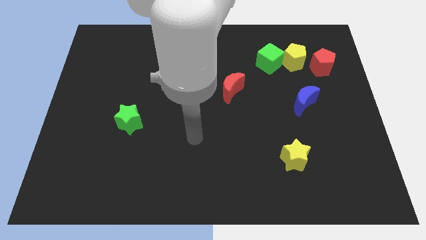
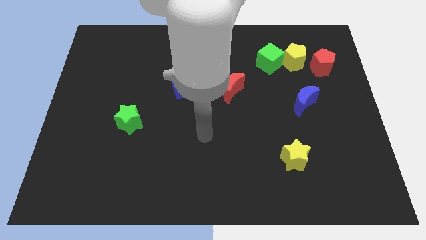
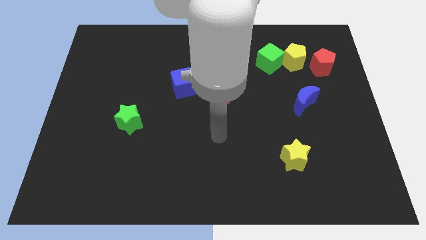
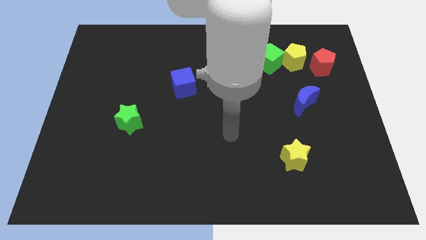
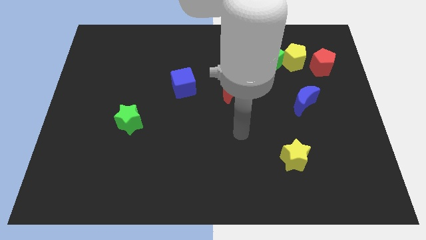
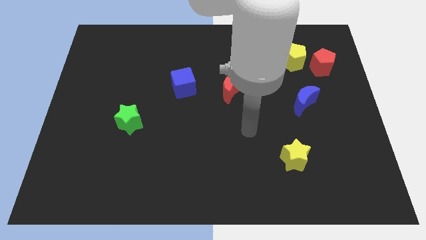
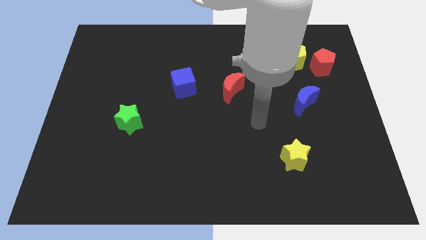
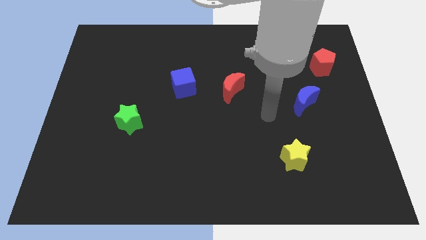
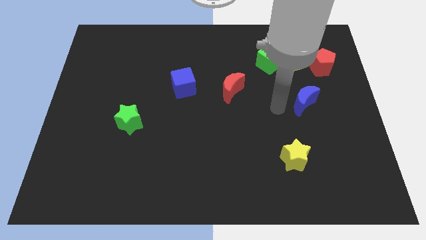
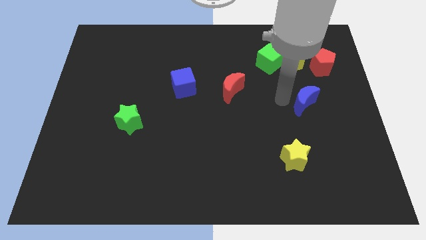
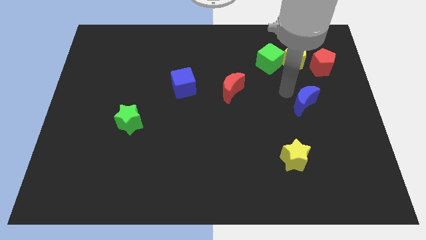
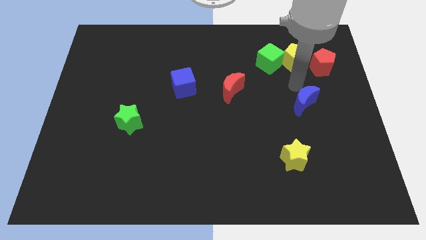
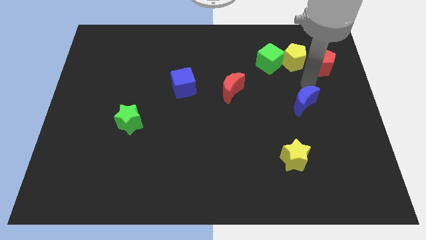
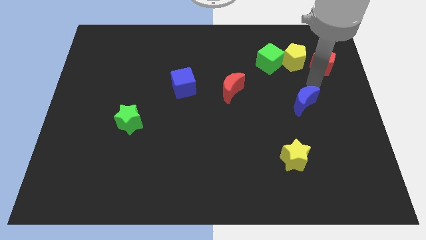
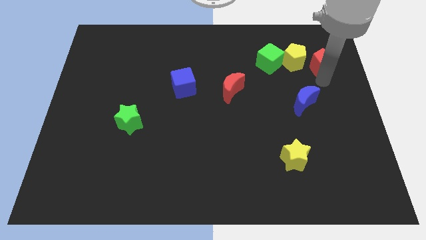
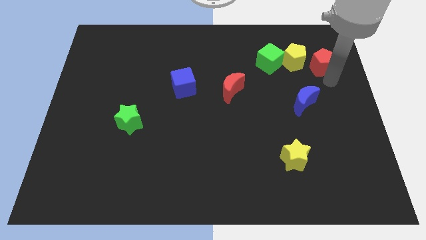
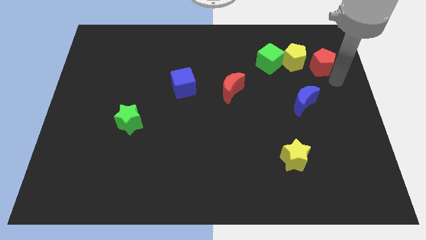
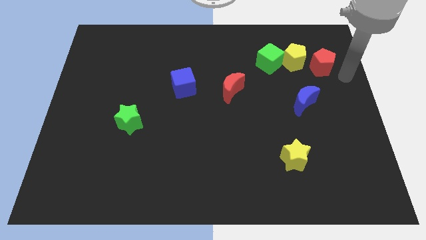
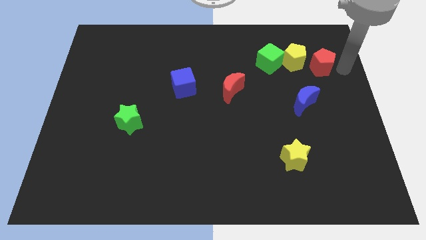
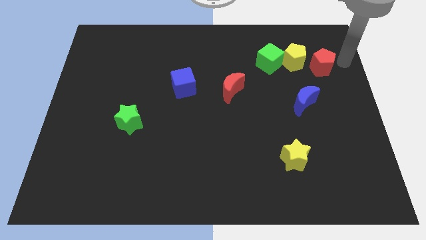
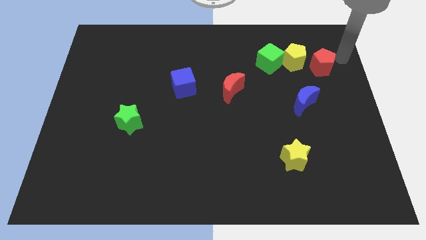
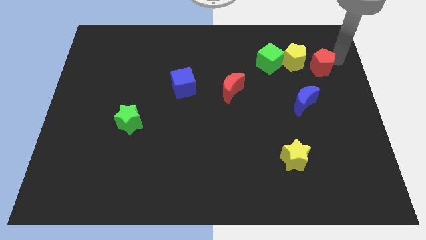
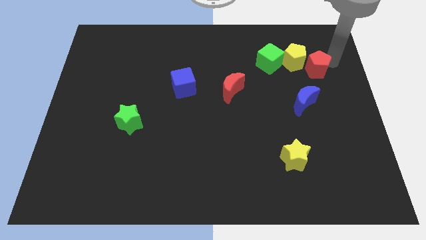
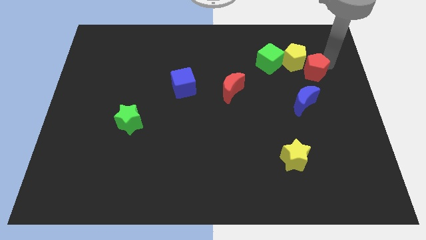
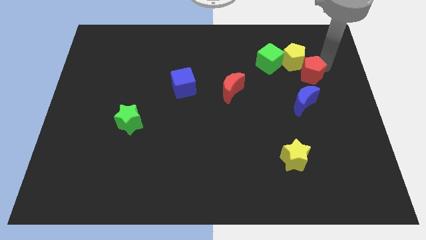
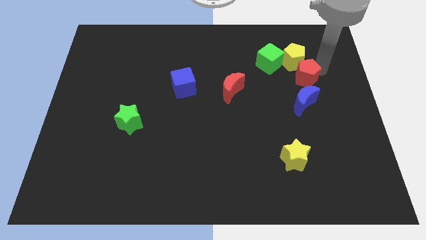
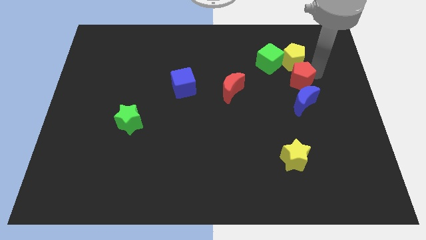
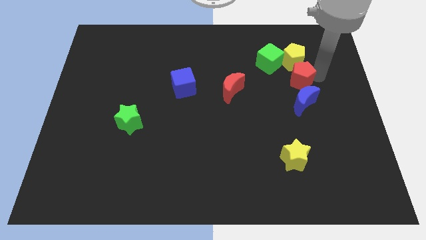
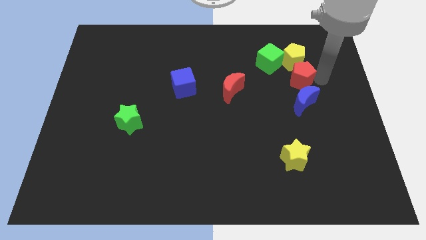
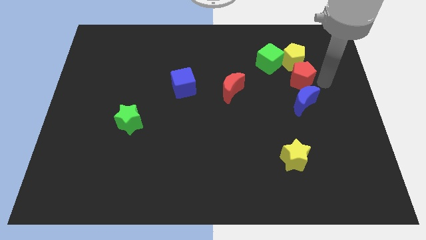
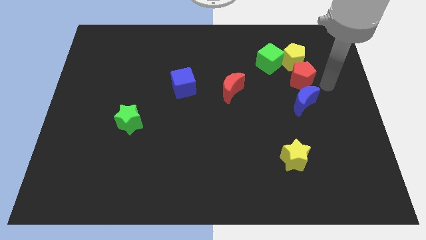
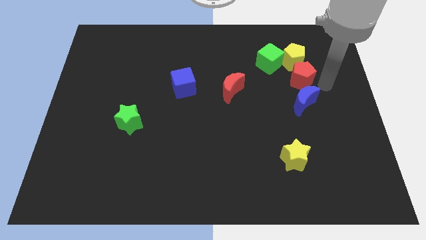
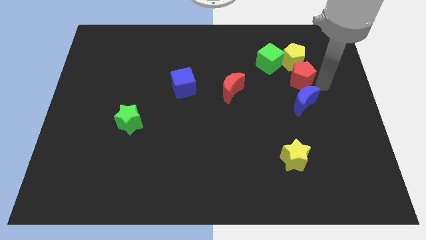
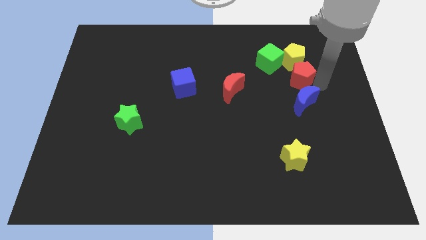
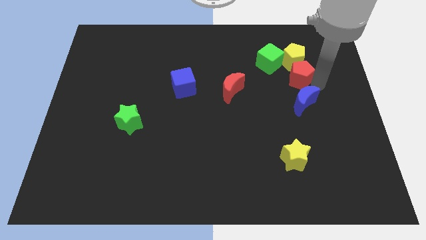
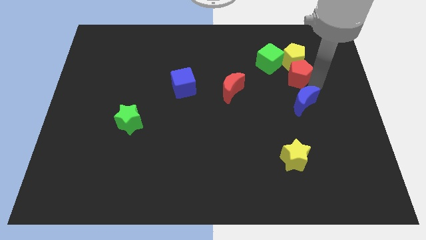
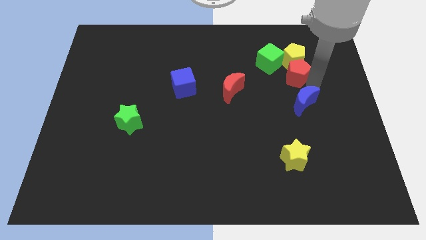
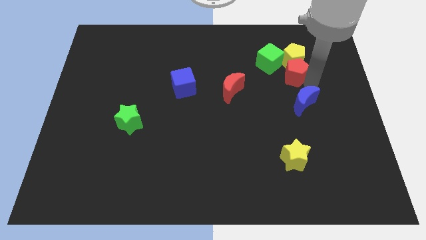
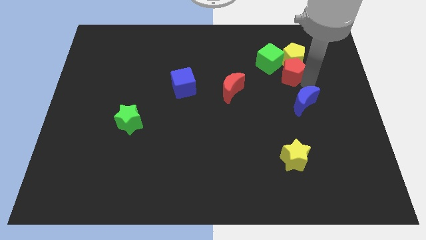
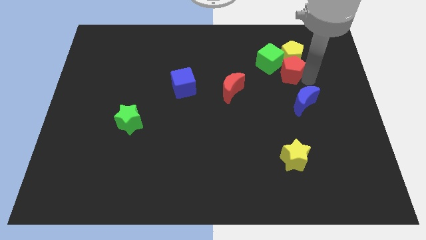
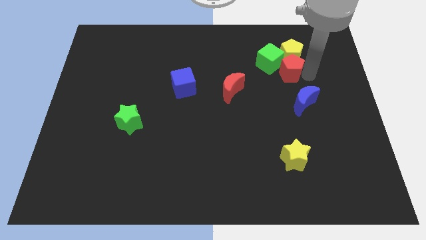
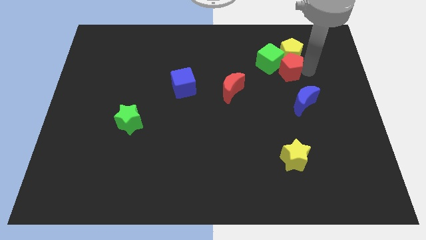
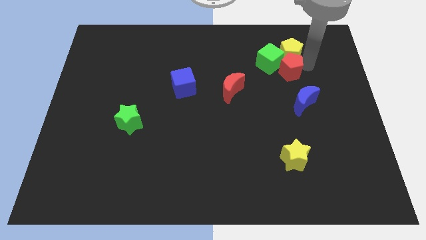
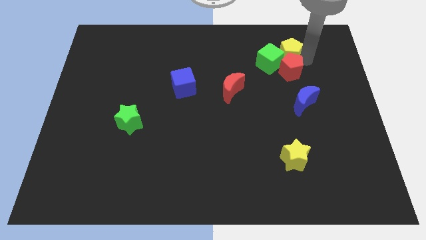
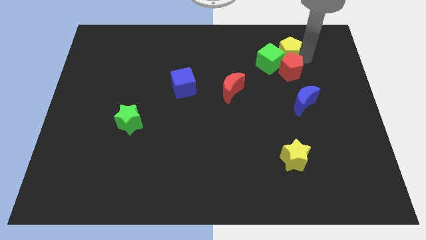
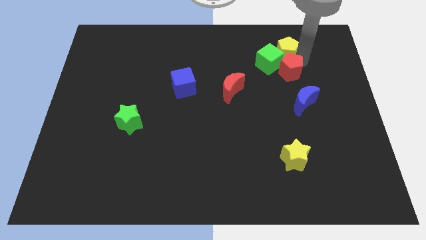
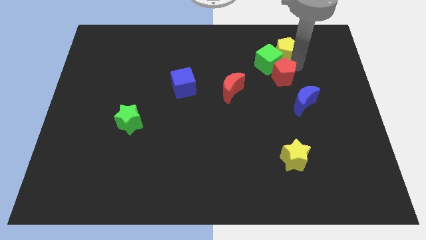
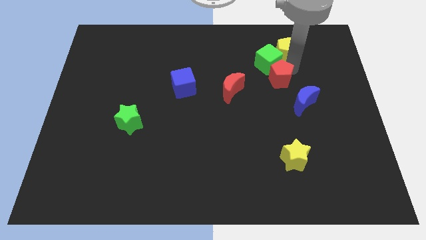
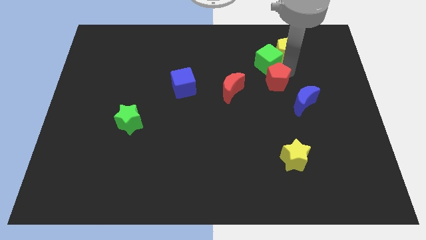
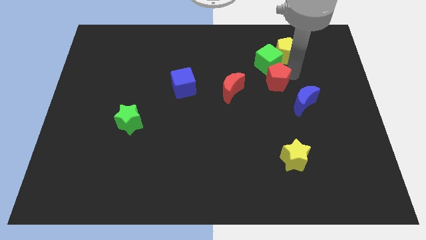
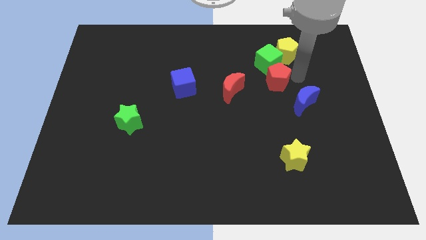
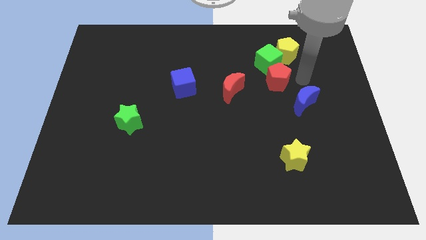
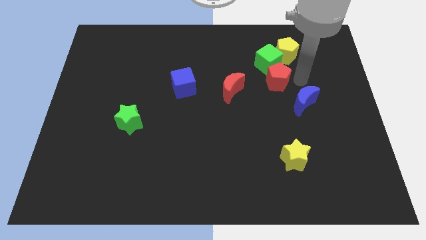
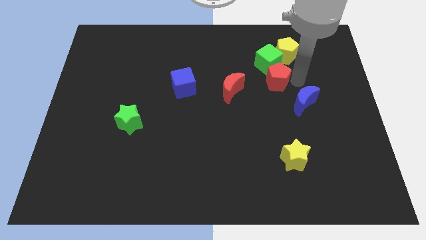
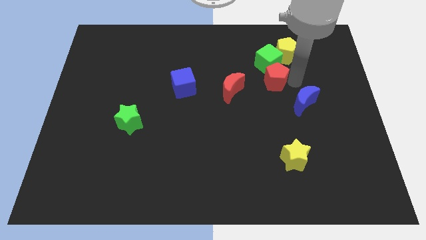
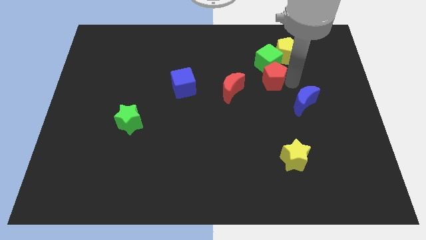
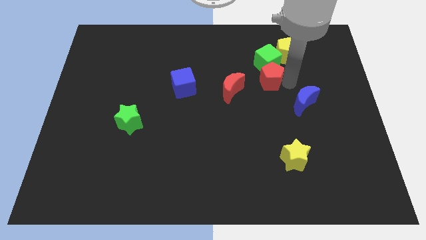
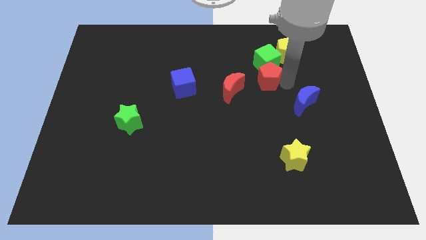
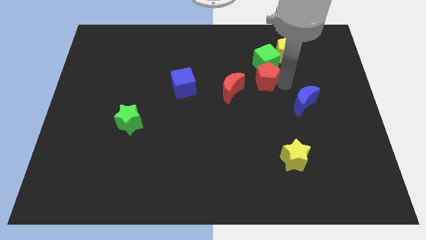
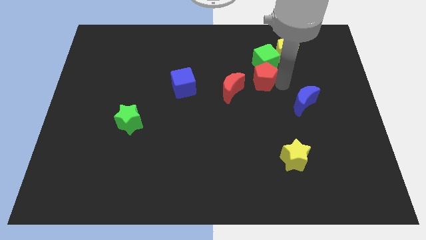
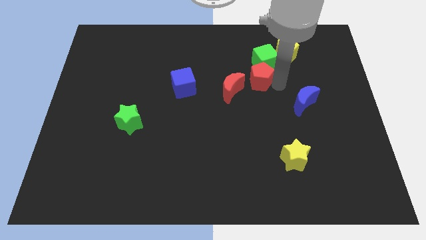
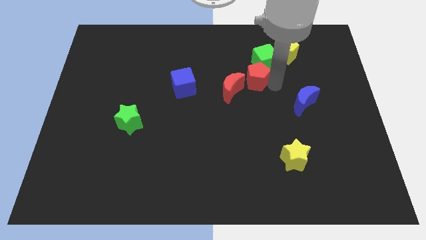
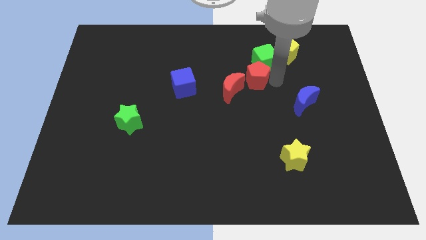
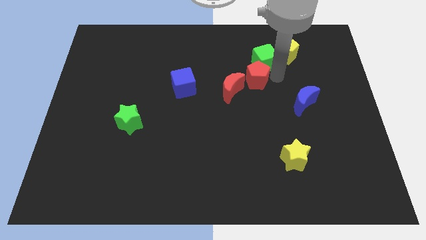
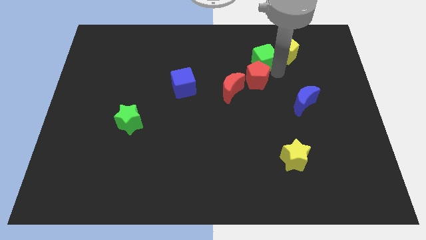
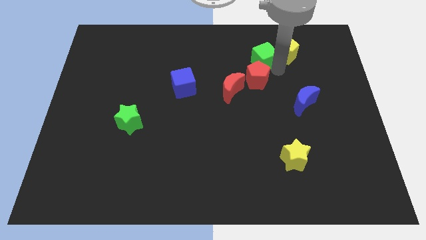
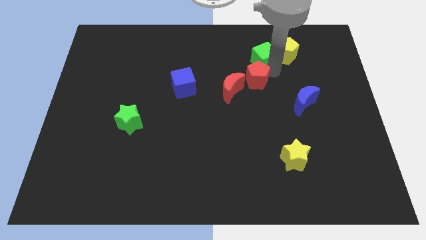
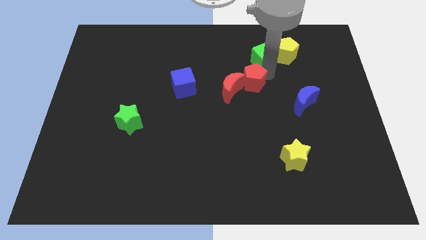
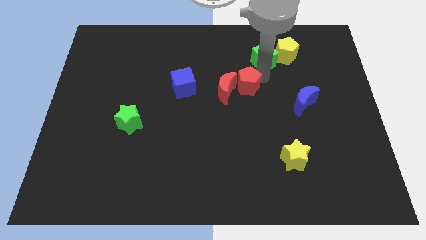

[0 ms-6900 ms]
slide the red pentagon to the red moon

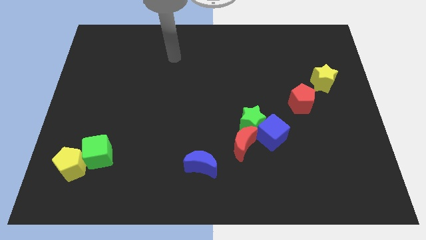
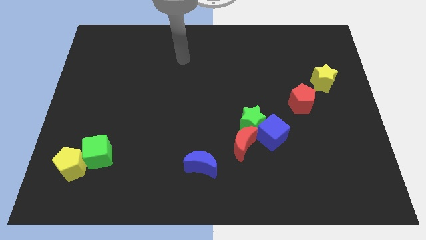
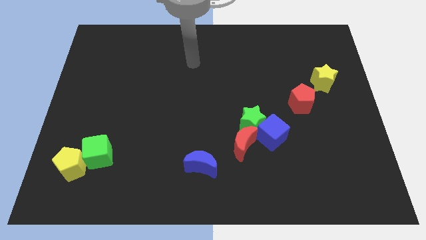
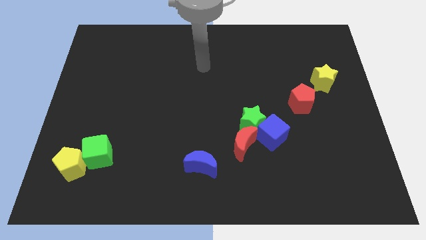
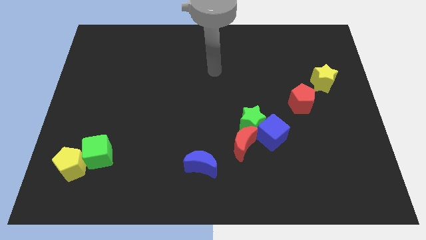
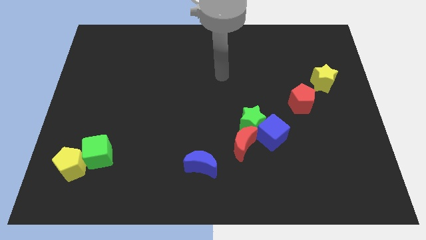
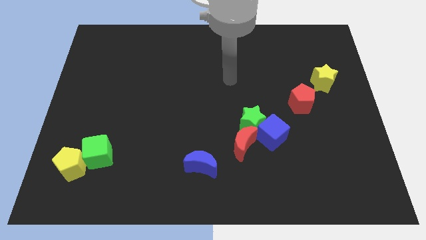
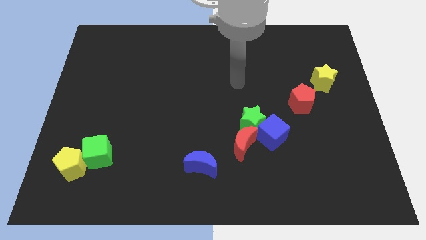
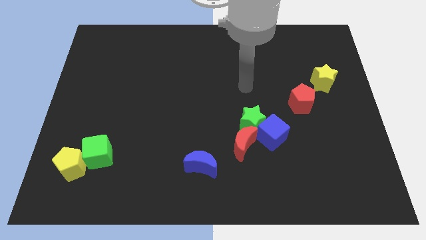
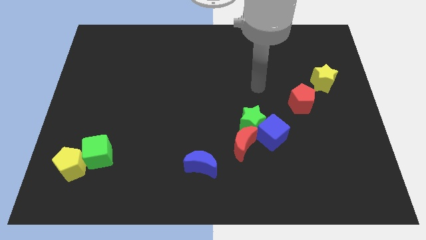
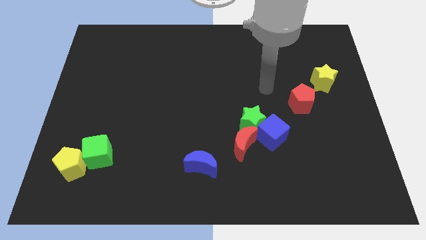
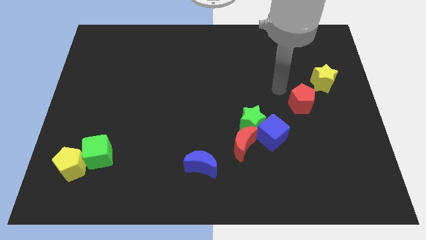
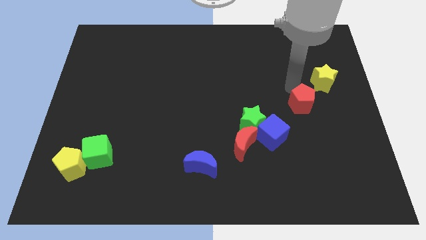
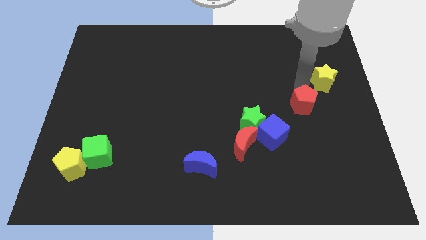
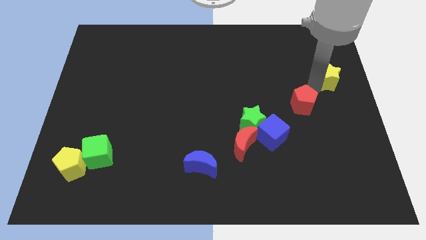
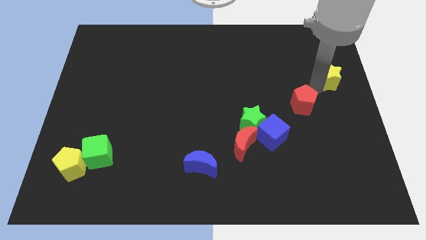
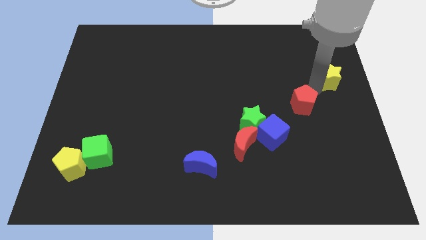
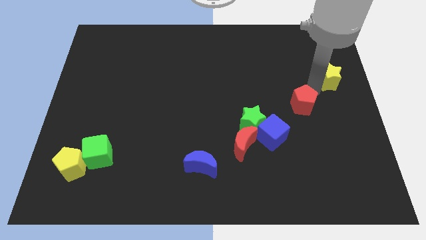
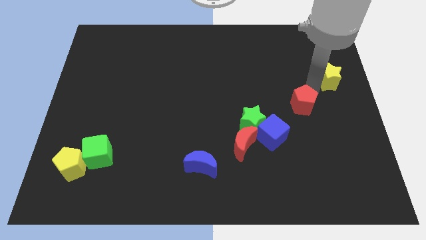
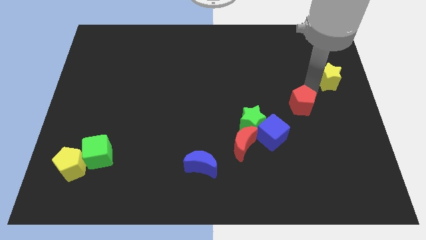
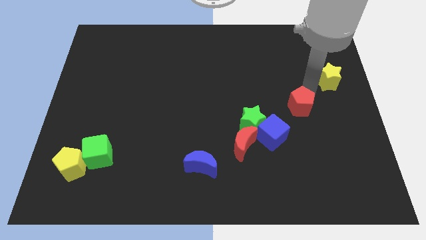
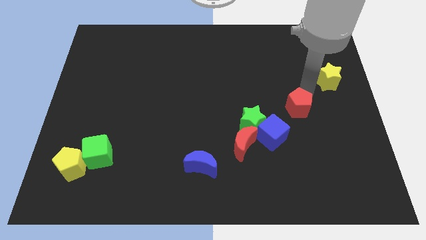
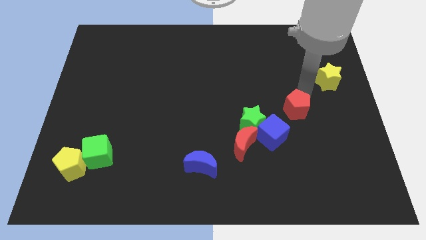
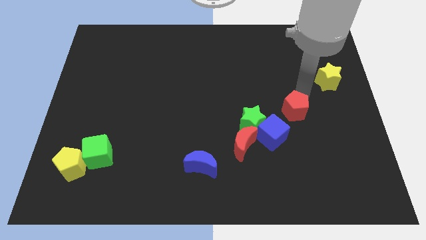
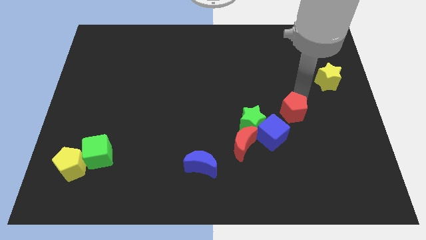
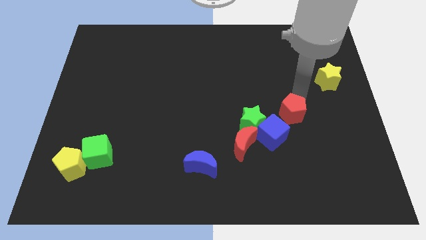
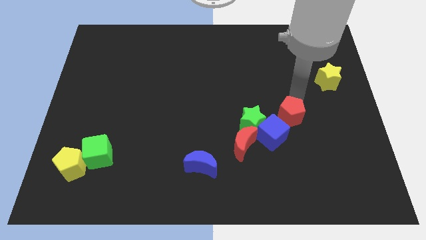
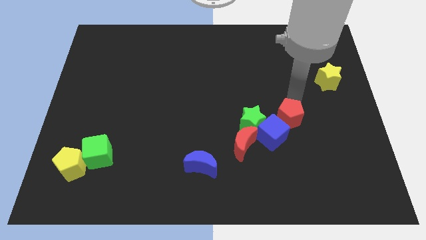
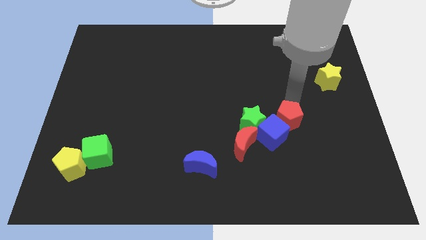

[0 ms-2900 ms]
move the red pentagon close to the blue cube
